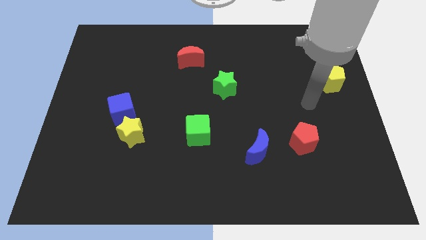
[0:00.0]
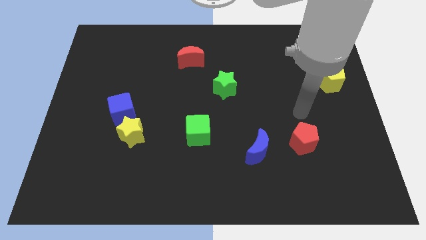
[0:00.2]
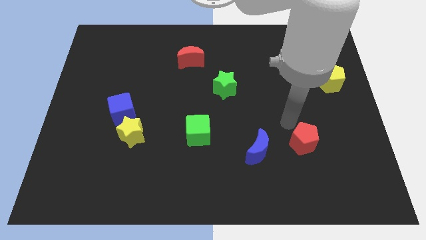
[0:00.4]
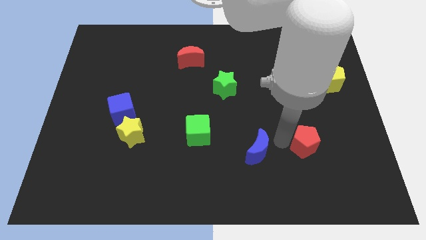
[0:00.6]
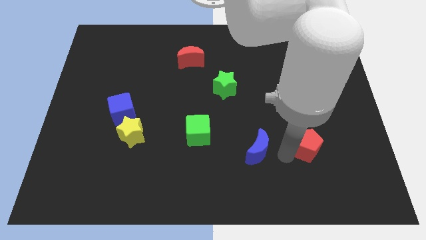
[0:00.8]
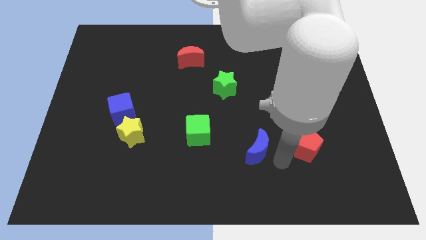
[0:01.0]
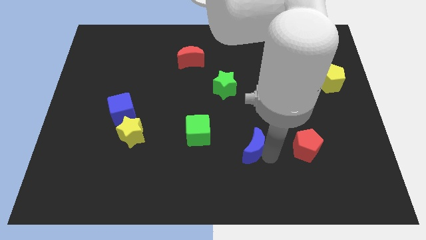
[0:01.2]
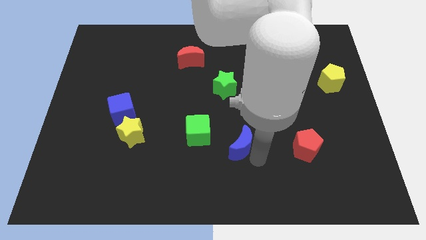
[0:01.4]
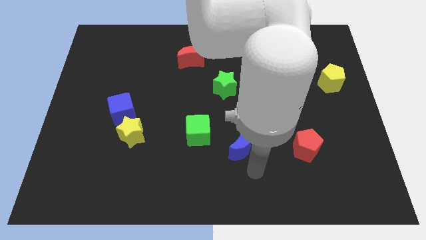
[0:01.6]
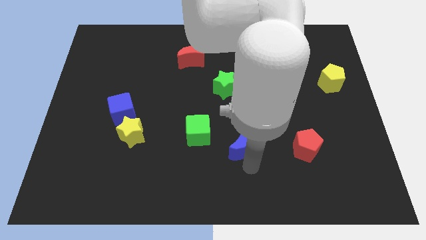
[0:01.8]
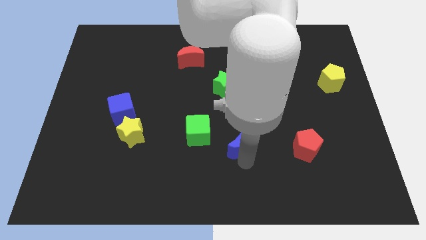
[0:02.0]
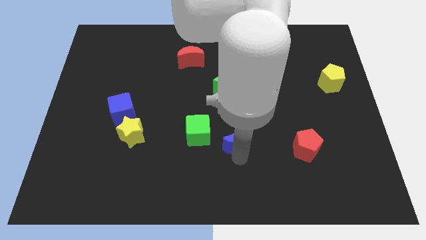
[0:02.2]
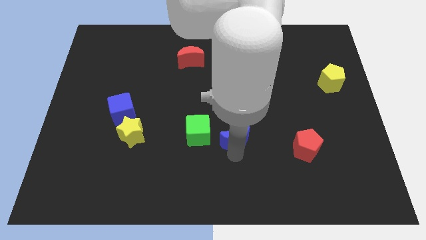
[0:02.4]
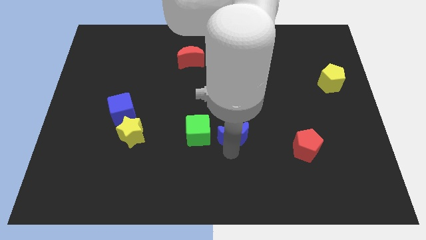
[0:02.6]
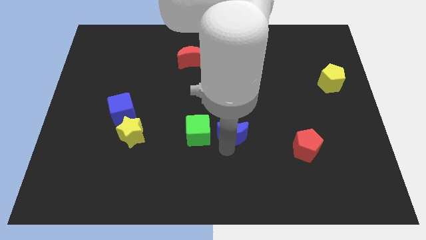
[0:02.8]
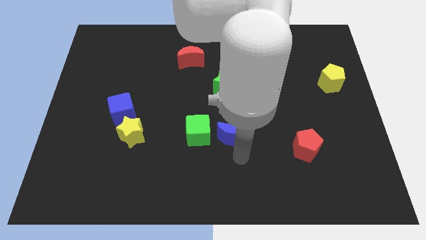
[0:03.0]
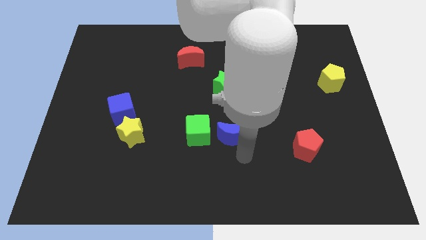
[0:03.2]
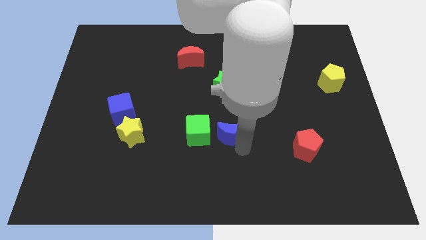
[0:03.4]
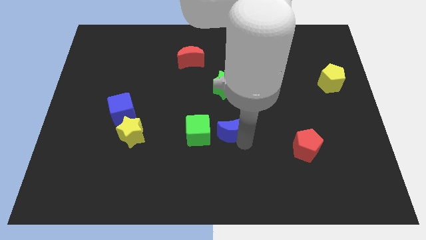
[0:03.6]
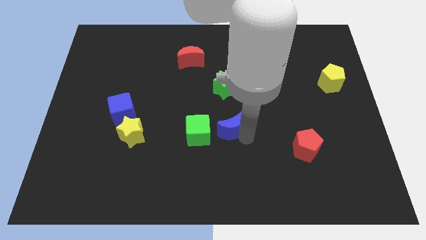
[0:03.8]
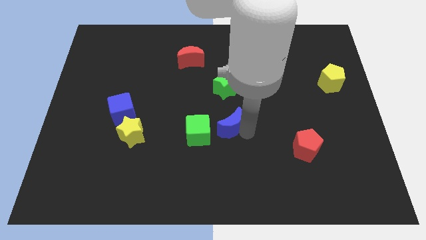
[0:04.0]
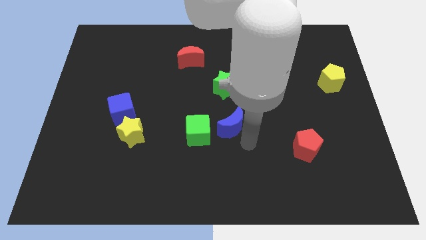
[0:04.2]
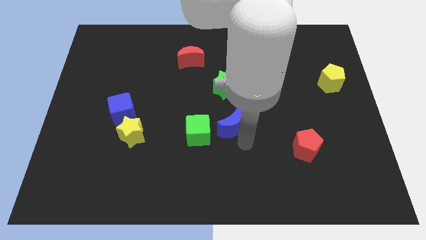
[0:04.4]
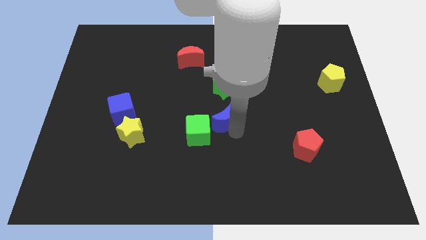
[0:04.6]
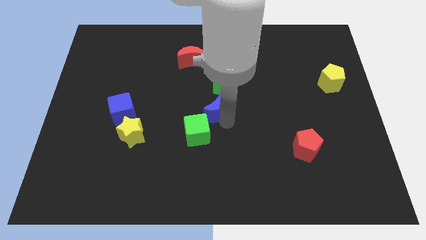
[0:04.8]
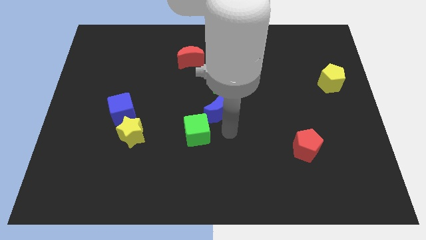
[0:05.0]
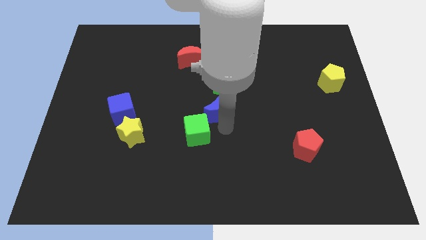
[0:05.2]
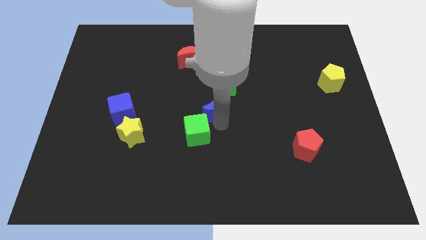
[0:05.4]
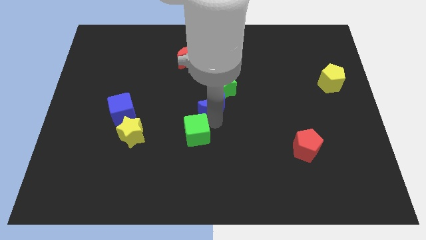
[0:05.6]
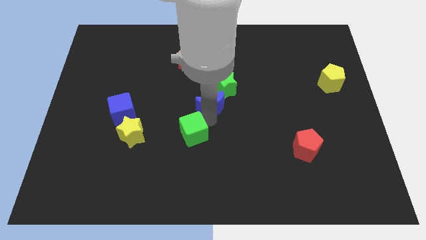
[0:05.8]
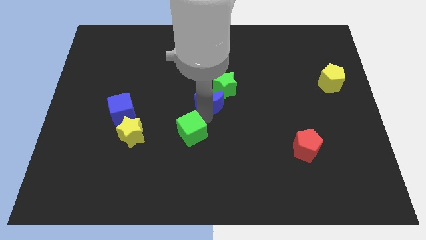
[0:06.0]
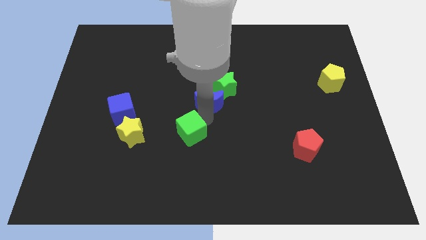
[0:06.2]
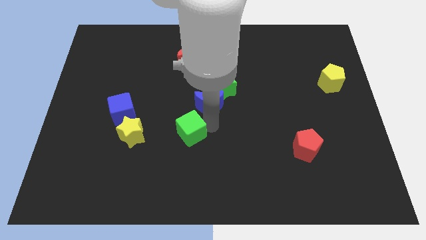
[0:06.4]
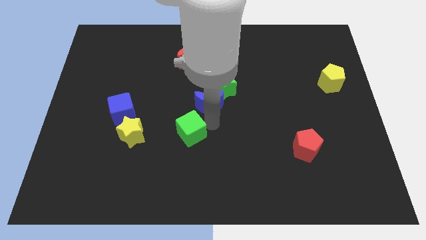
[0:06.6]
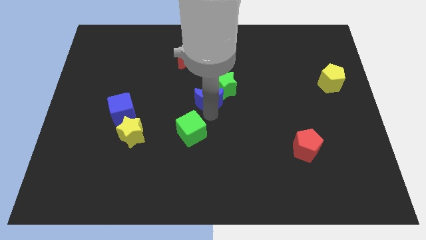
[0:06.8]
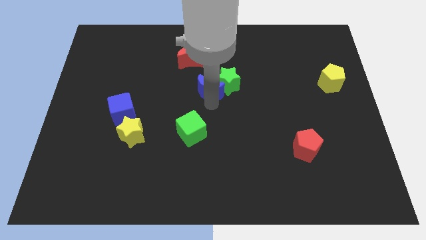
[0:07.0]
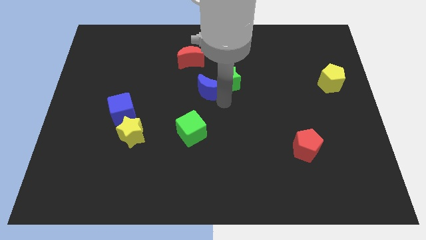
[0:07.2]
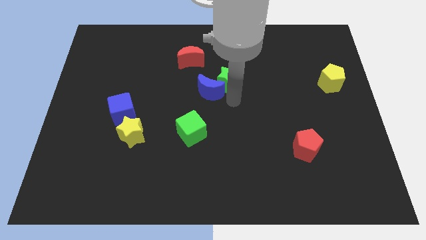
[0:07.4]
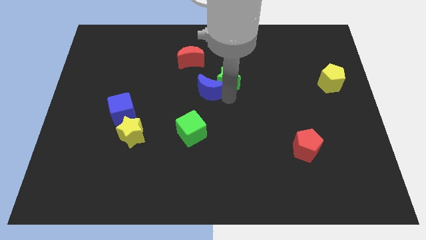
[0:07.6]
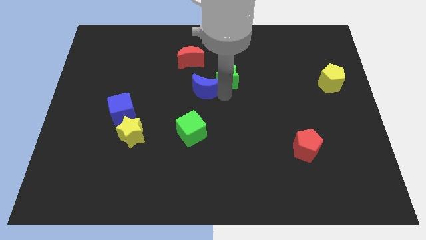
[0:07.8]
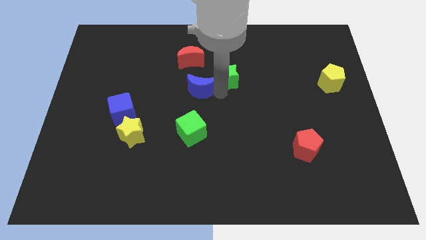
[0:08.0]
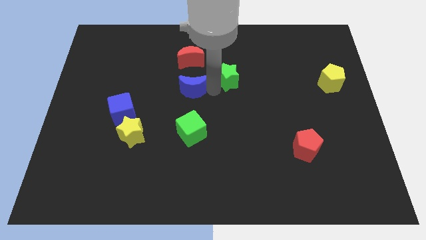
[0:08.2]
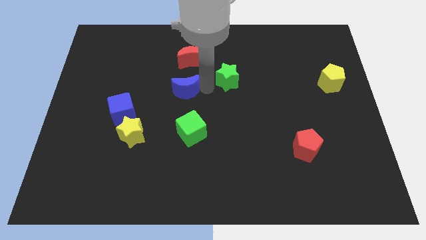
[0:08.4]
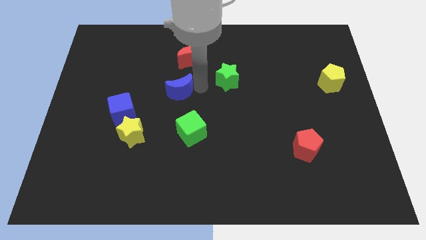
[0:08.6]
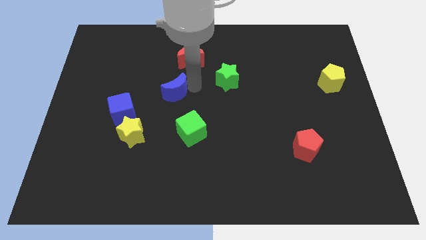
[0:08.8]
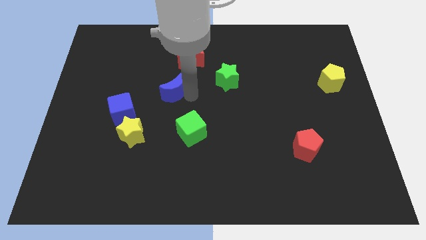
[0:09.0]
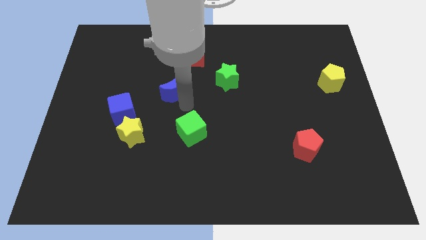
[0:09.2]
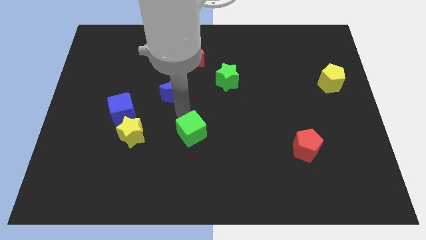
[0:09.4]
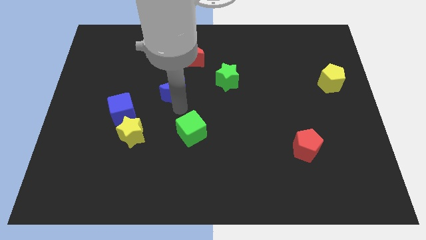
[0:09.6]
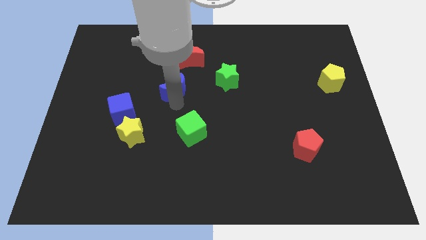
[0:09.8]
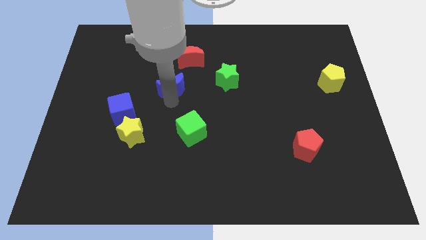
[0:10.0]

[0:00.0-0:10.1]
push the blue moon diagonally down and to the left of the red moon

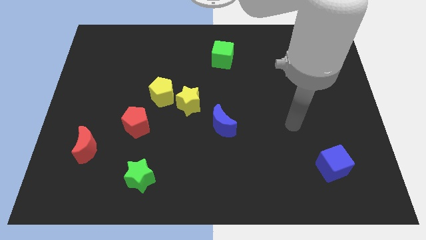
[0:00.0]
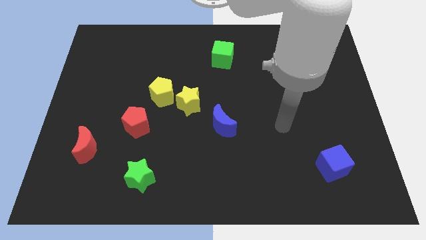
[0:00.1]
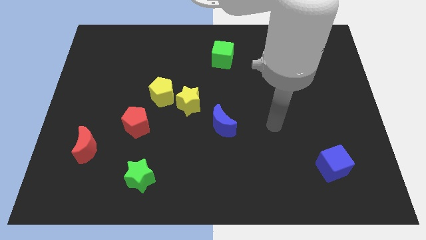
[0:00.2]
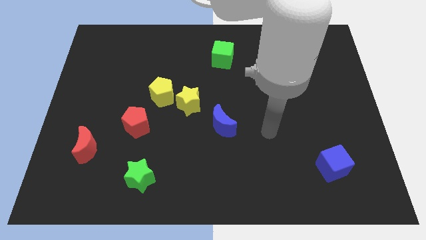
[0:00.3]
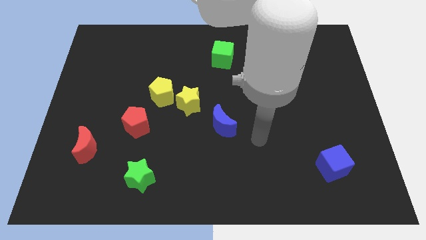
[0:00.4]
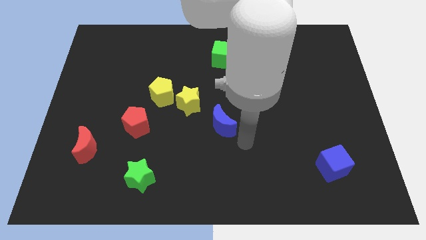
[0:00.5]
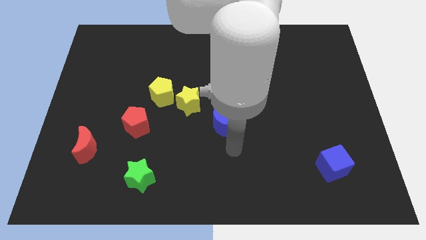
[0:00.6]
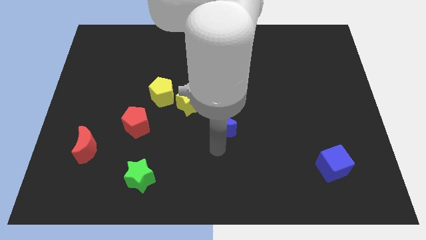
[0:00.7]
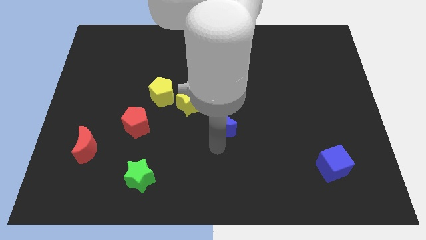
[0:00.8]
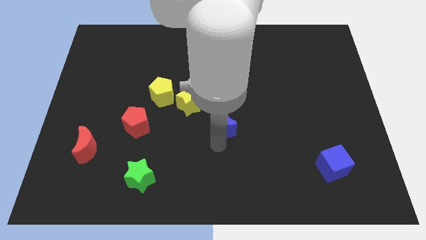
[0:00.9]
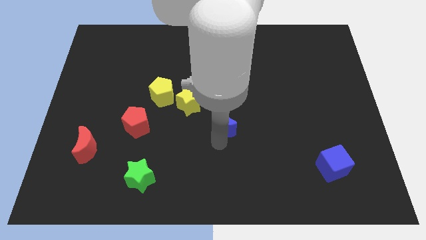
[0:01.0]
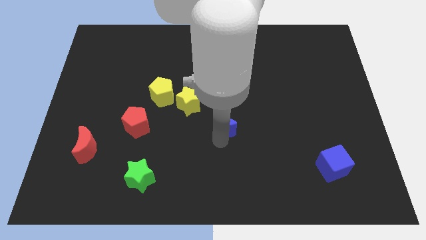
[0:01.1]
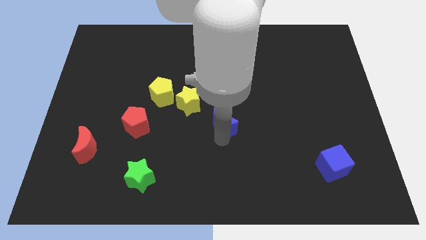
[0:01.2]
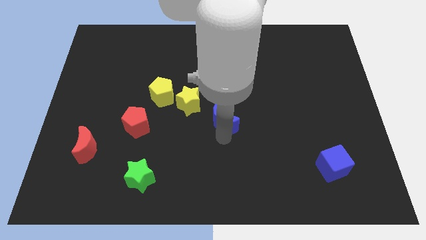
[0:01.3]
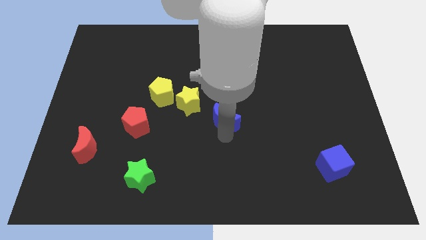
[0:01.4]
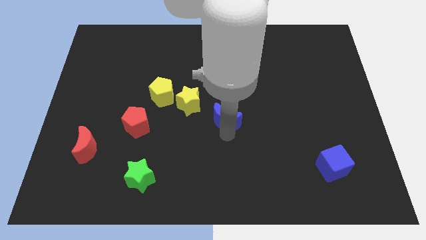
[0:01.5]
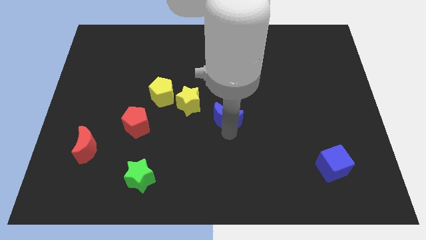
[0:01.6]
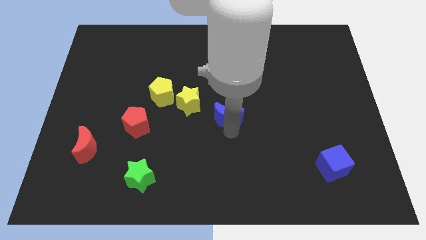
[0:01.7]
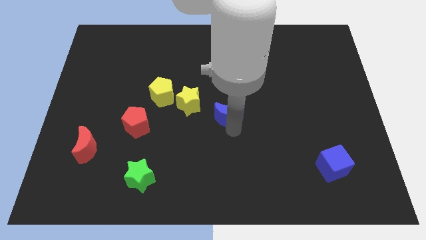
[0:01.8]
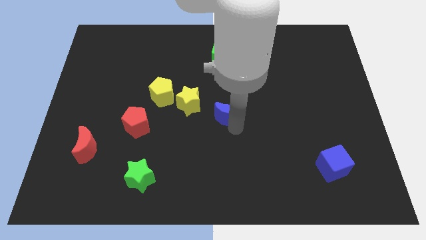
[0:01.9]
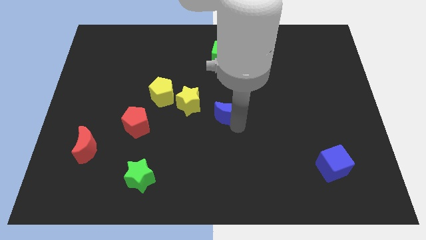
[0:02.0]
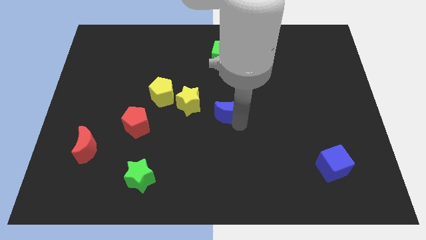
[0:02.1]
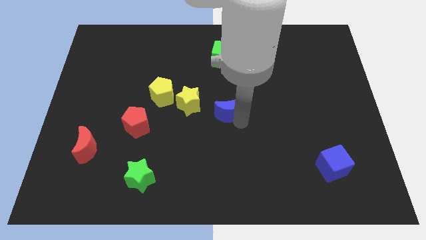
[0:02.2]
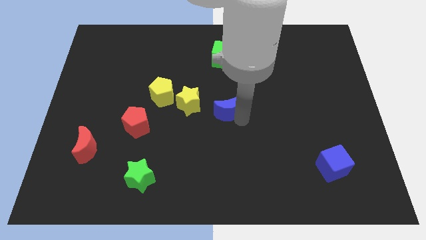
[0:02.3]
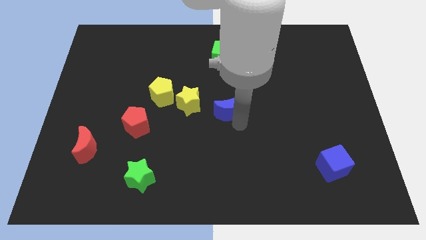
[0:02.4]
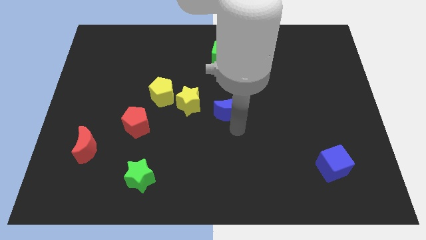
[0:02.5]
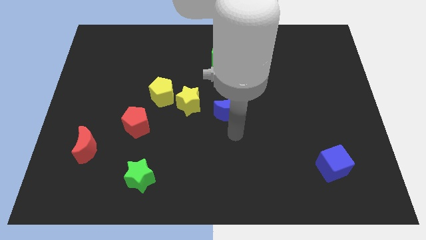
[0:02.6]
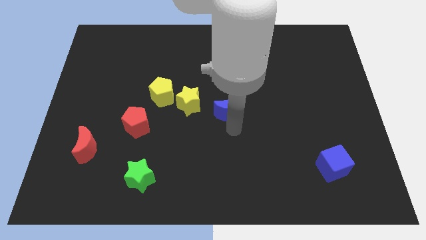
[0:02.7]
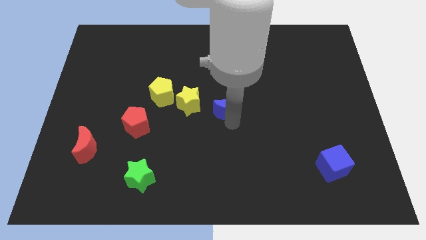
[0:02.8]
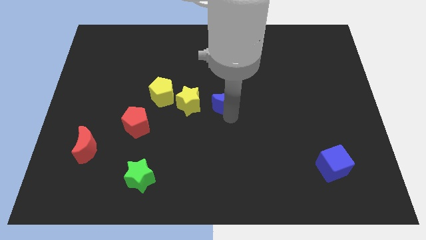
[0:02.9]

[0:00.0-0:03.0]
put the blue moon to the bottom of the green cube
